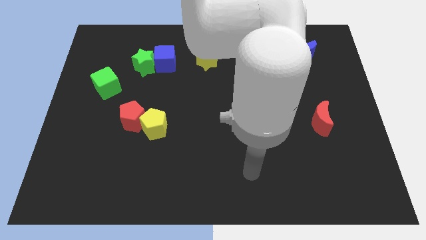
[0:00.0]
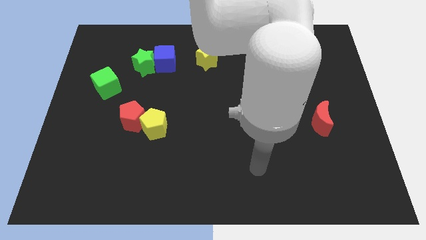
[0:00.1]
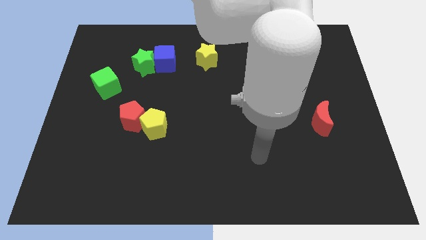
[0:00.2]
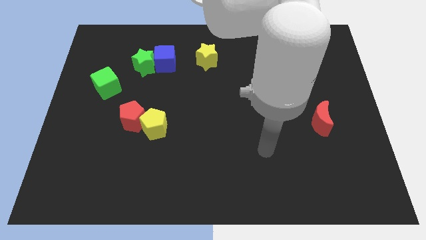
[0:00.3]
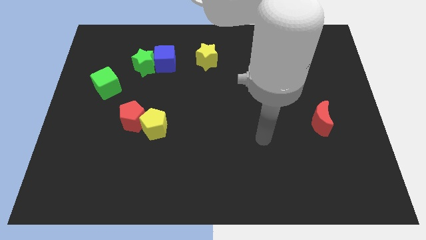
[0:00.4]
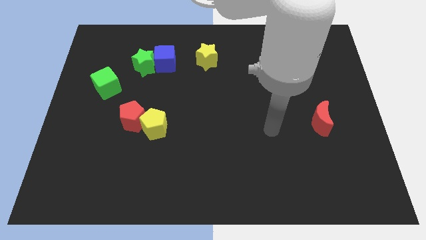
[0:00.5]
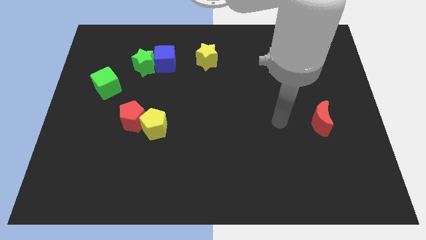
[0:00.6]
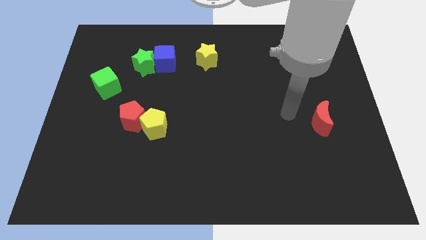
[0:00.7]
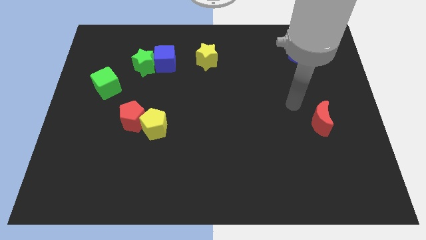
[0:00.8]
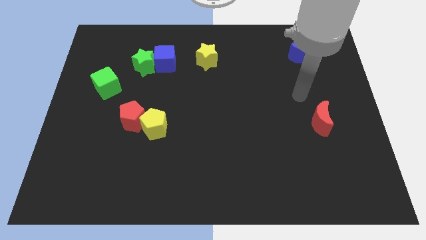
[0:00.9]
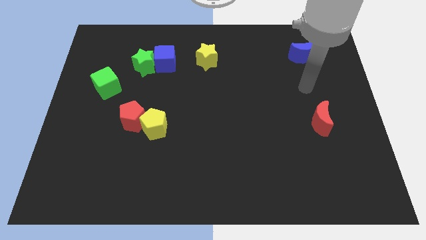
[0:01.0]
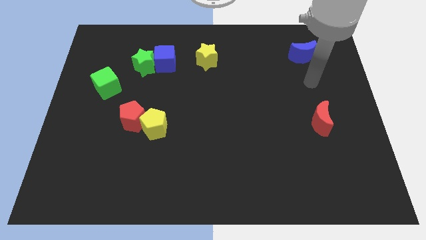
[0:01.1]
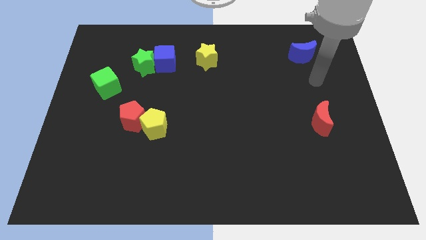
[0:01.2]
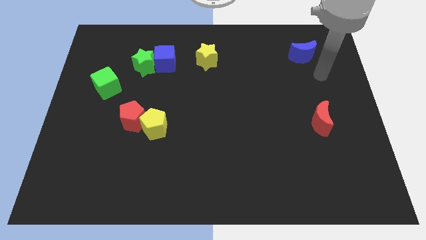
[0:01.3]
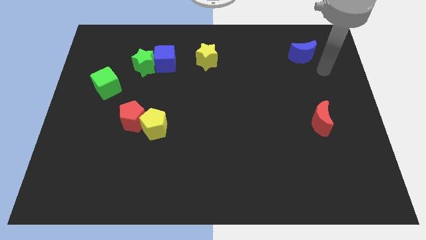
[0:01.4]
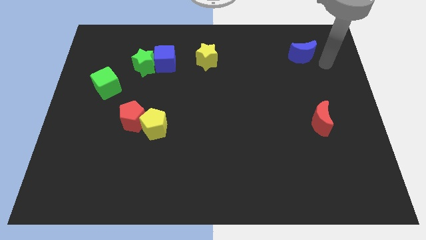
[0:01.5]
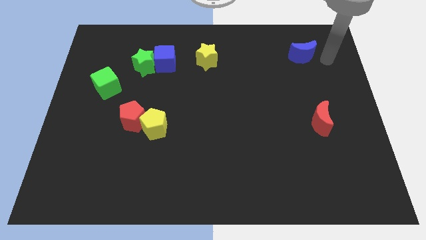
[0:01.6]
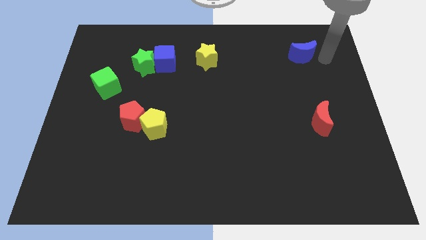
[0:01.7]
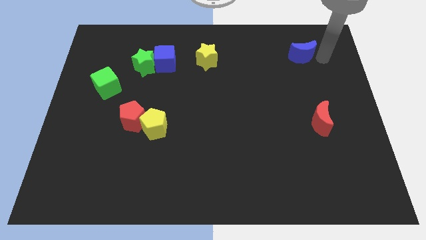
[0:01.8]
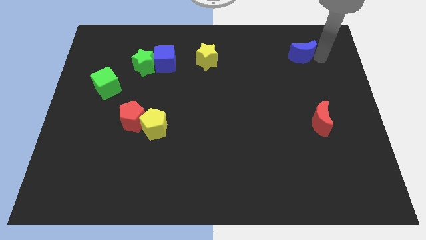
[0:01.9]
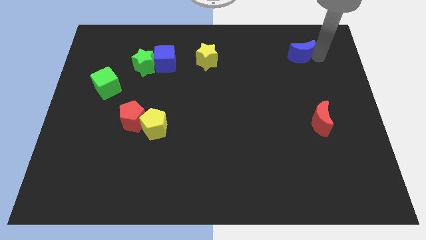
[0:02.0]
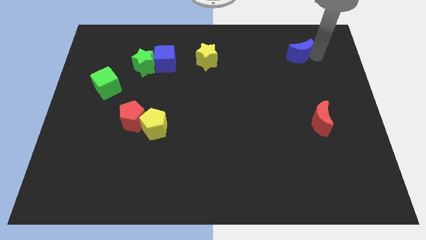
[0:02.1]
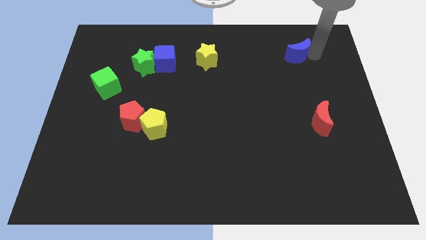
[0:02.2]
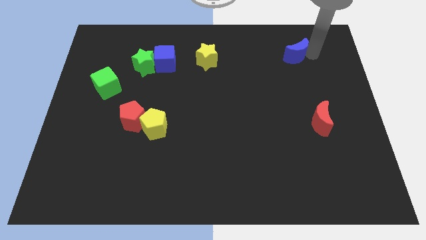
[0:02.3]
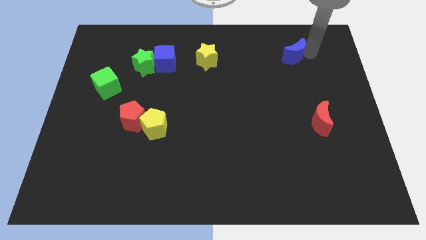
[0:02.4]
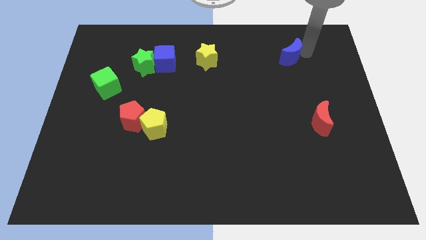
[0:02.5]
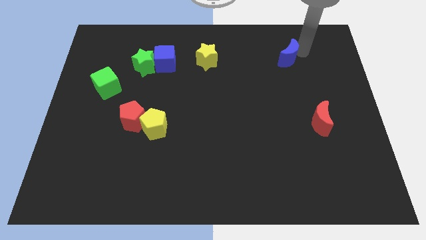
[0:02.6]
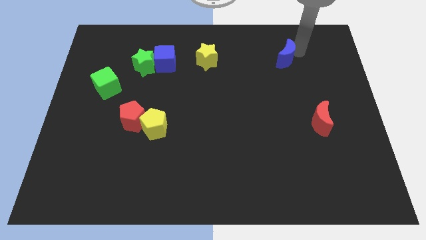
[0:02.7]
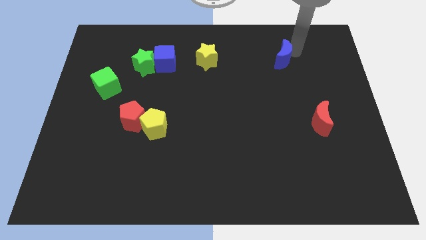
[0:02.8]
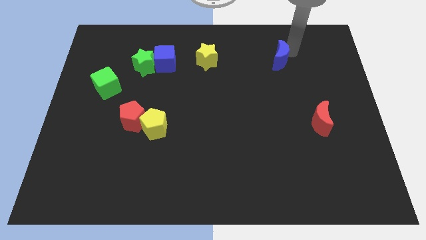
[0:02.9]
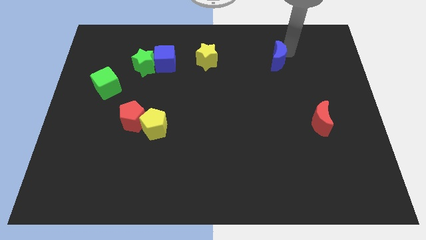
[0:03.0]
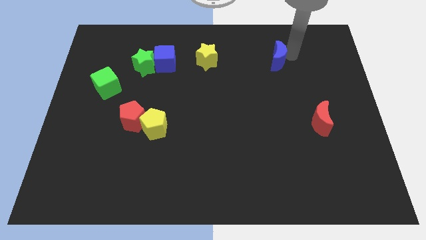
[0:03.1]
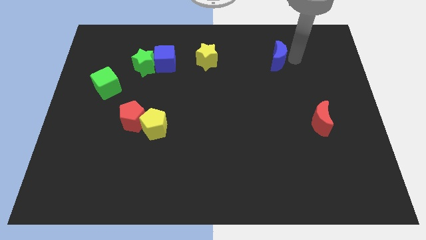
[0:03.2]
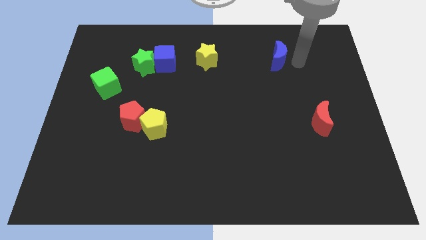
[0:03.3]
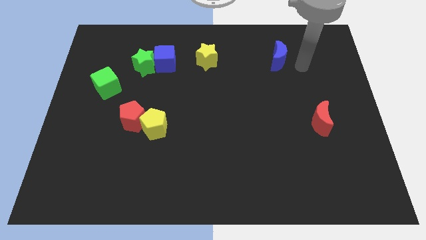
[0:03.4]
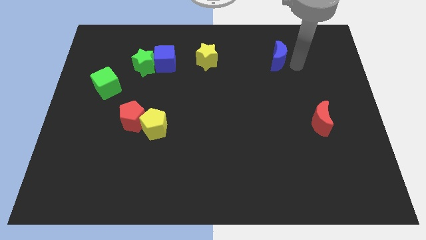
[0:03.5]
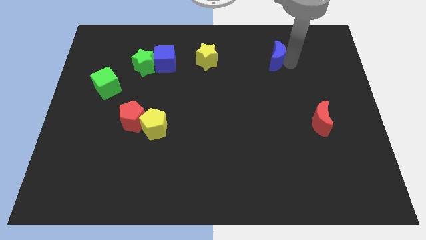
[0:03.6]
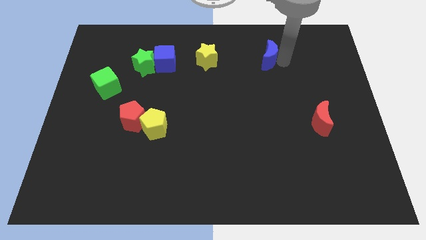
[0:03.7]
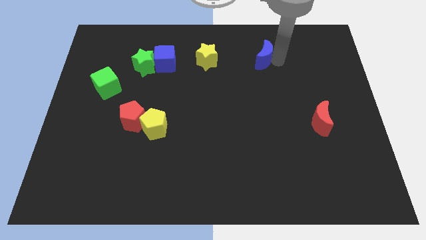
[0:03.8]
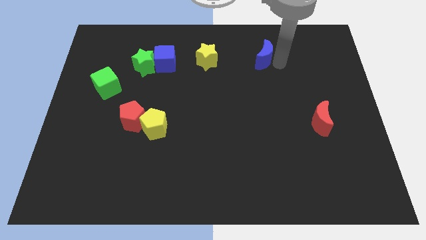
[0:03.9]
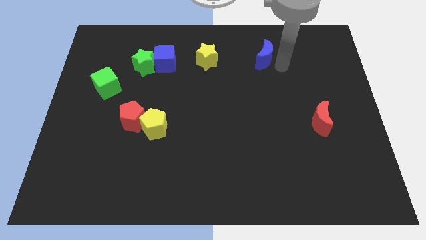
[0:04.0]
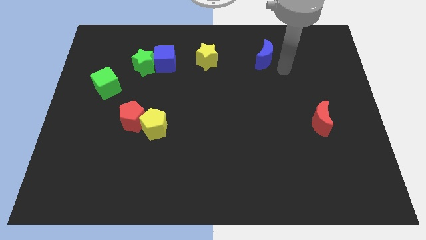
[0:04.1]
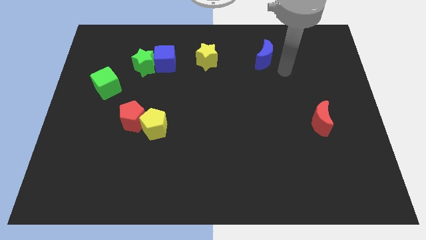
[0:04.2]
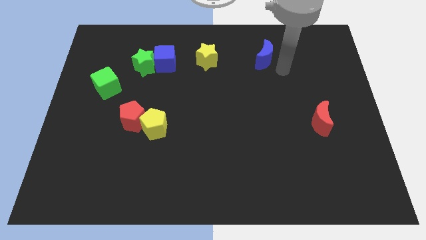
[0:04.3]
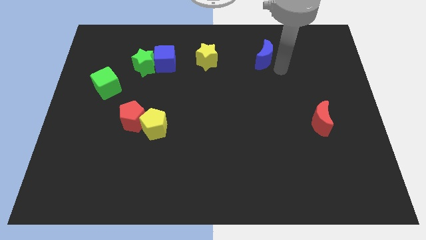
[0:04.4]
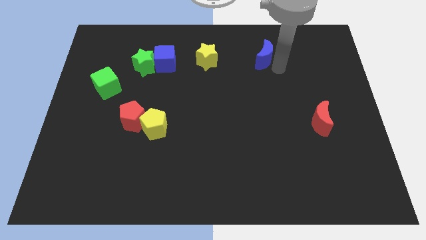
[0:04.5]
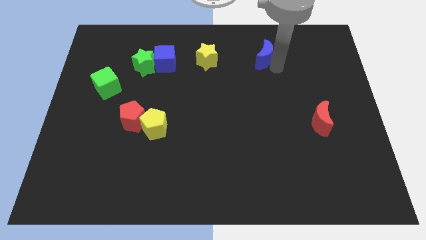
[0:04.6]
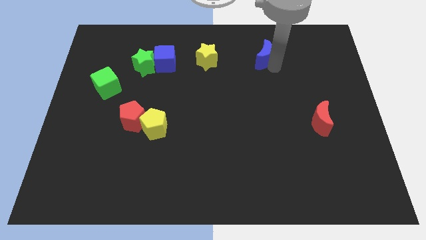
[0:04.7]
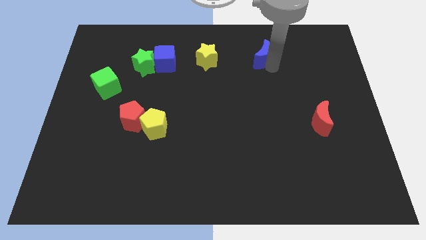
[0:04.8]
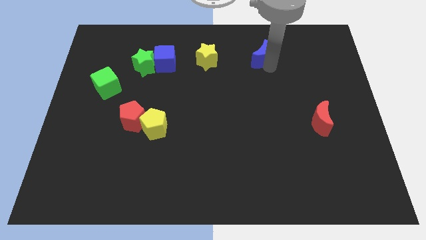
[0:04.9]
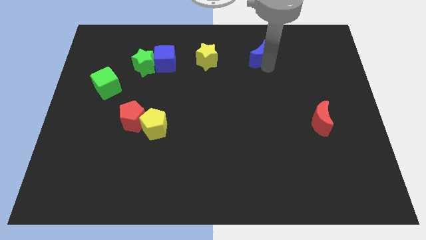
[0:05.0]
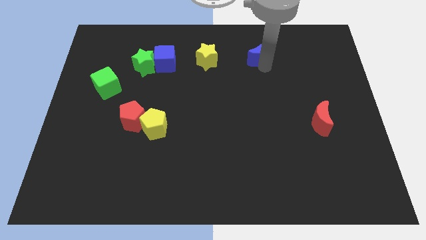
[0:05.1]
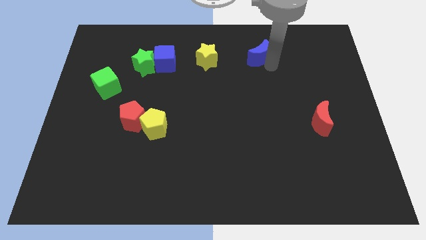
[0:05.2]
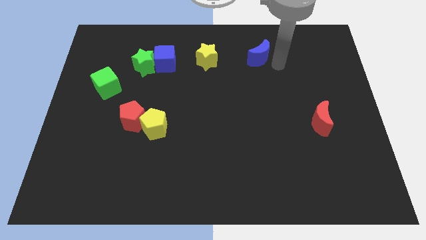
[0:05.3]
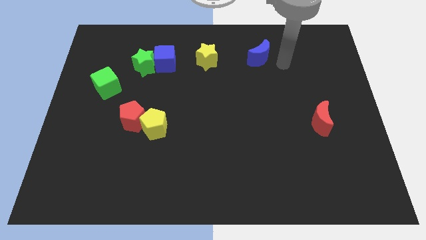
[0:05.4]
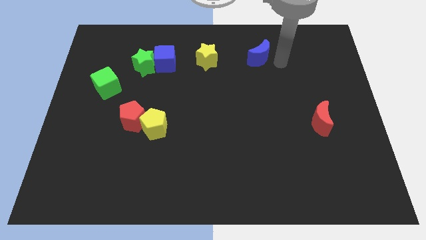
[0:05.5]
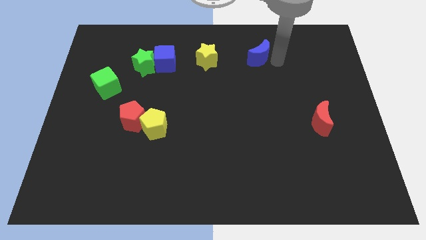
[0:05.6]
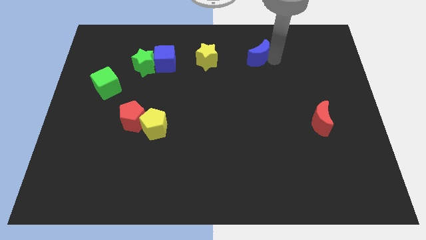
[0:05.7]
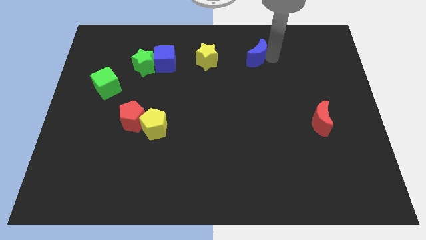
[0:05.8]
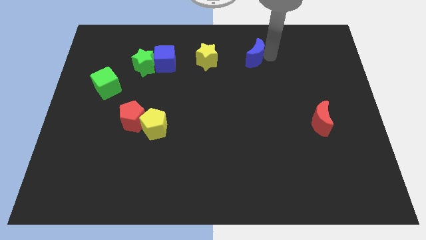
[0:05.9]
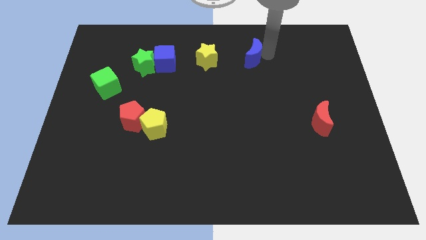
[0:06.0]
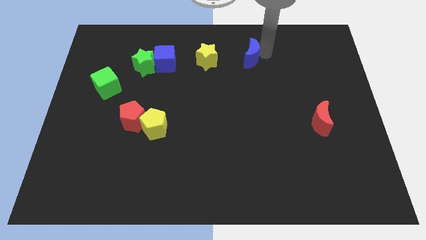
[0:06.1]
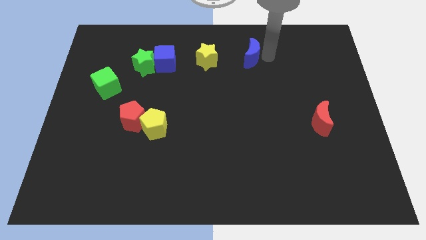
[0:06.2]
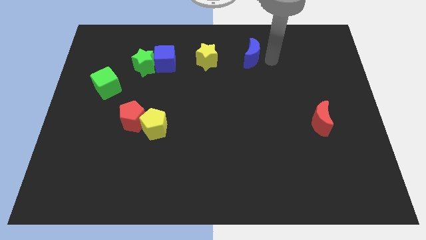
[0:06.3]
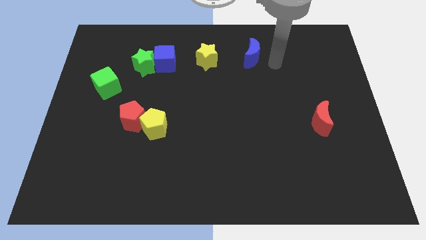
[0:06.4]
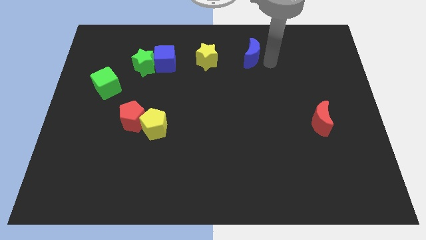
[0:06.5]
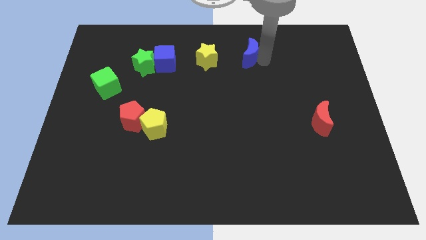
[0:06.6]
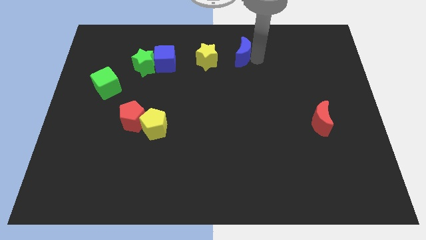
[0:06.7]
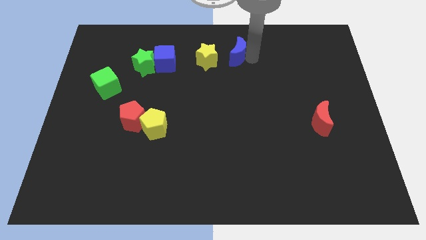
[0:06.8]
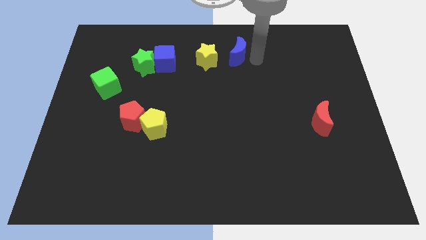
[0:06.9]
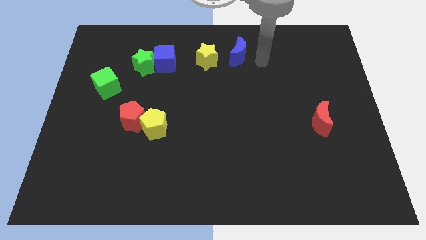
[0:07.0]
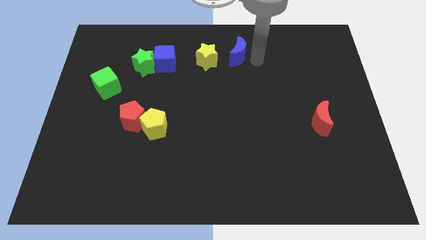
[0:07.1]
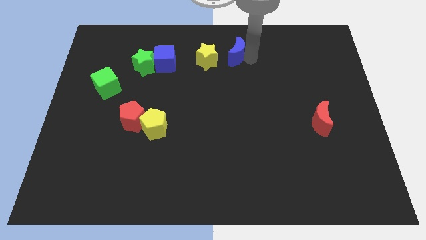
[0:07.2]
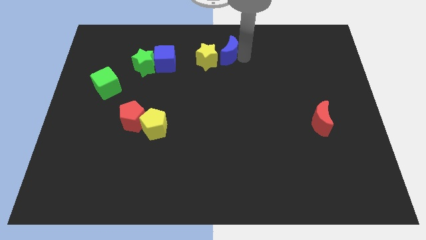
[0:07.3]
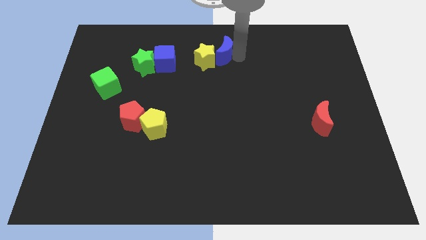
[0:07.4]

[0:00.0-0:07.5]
slide the blue moon left

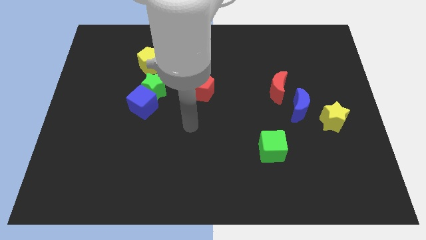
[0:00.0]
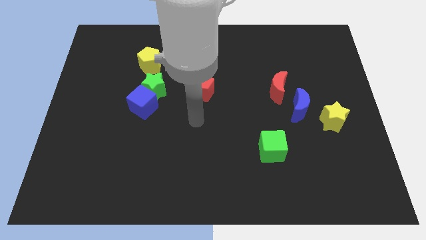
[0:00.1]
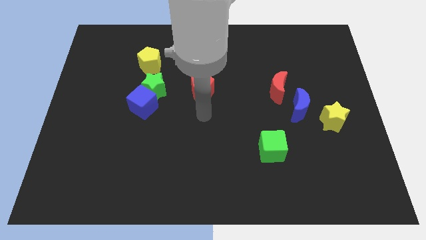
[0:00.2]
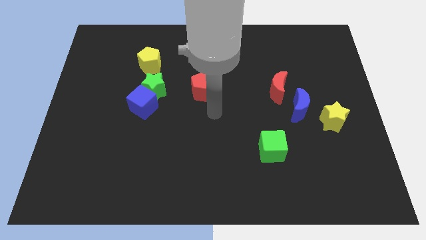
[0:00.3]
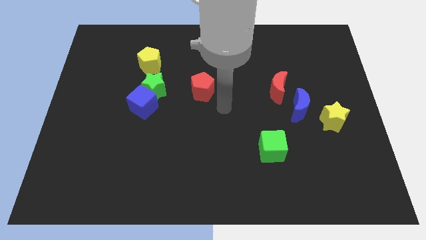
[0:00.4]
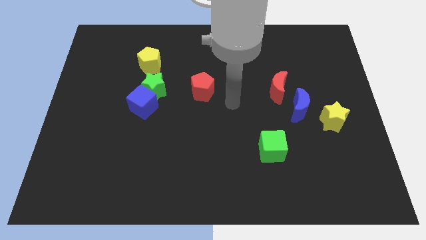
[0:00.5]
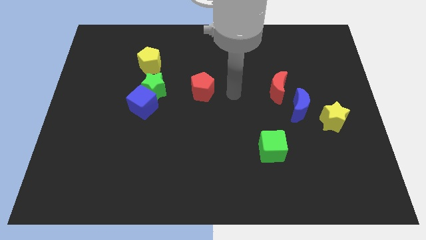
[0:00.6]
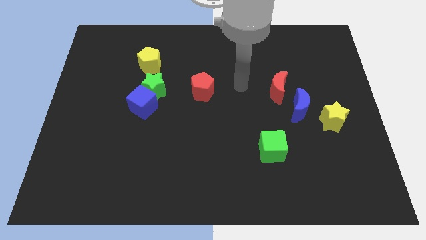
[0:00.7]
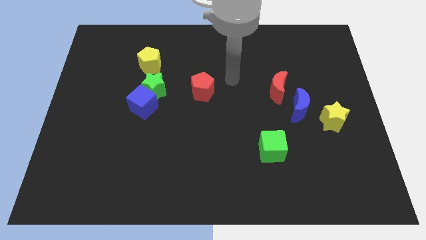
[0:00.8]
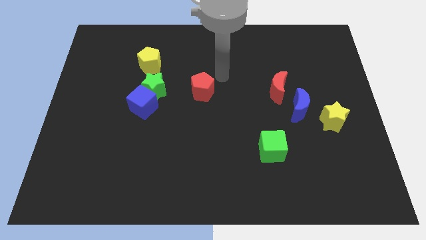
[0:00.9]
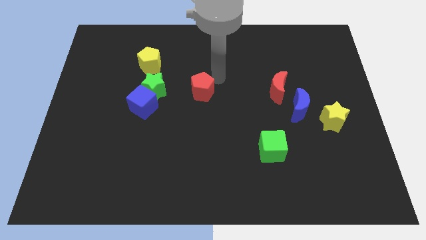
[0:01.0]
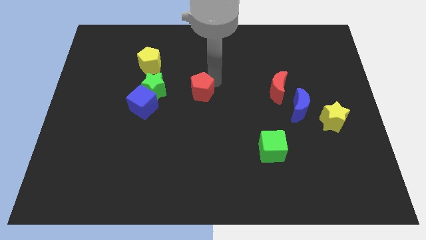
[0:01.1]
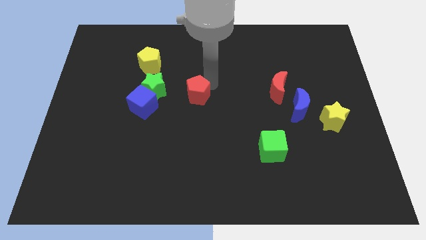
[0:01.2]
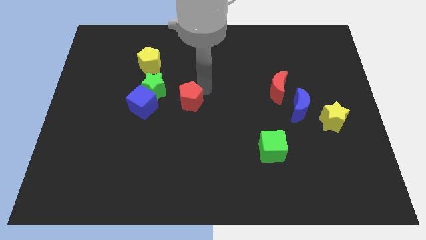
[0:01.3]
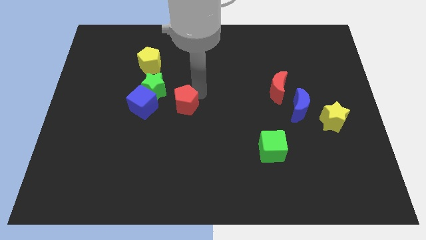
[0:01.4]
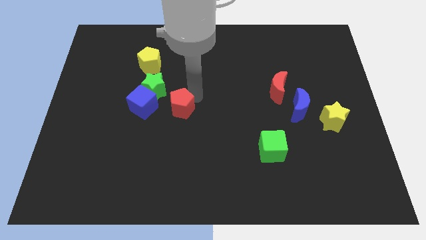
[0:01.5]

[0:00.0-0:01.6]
slide the red pentagon slightly downwards and left
